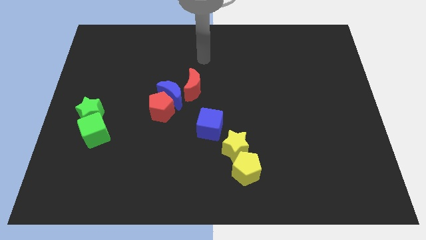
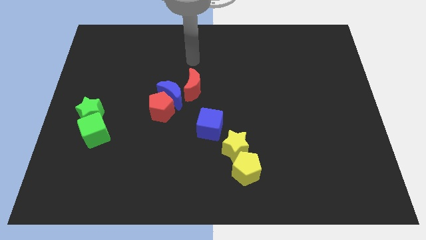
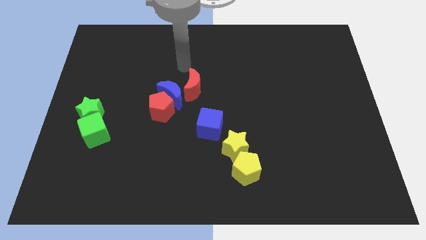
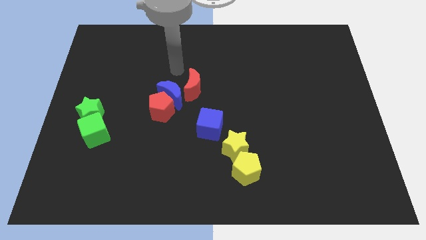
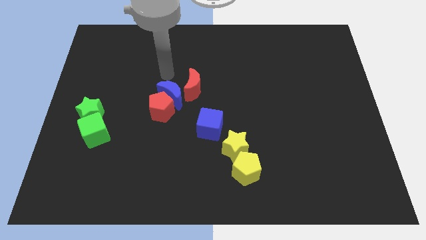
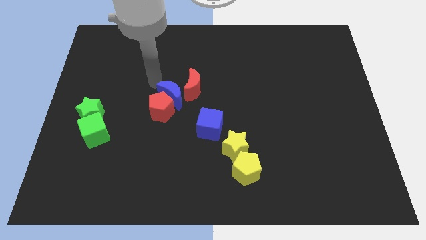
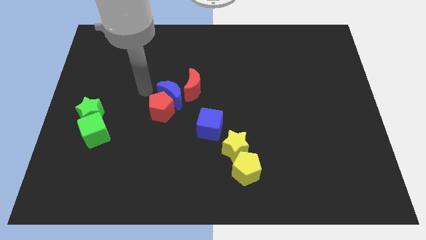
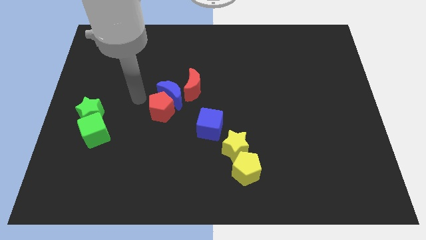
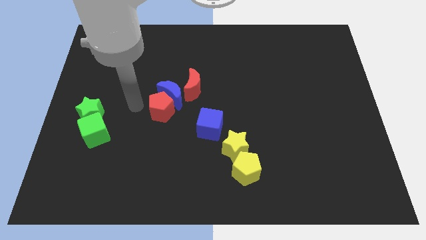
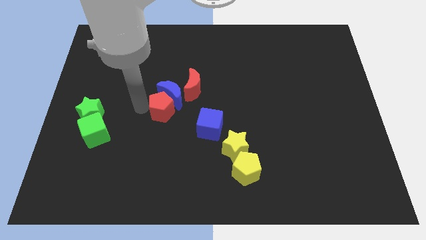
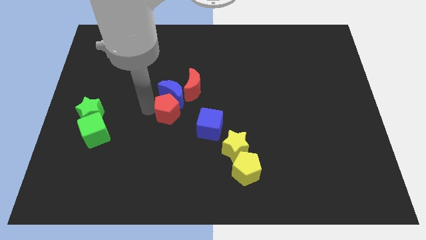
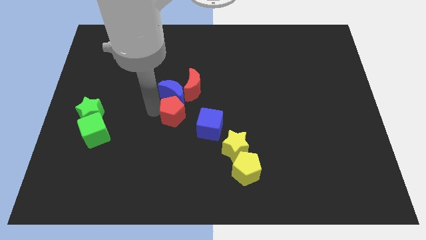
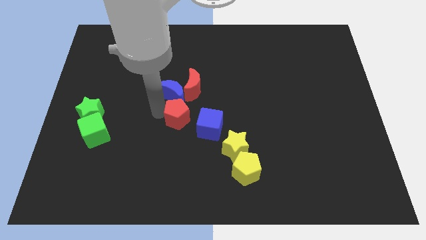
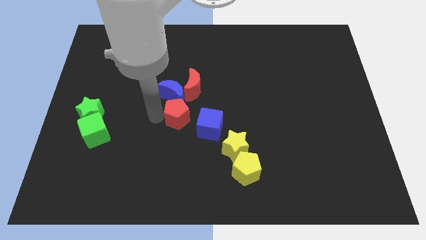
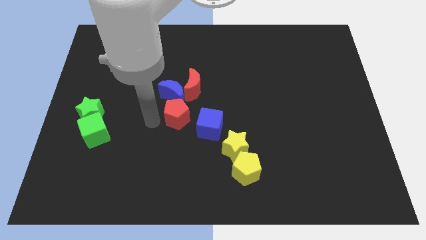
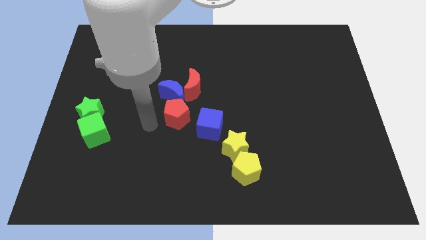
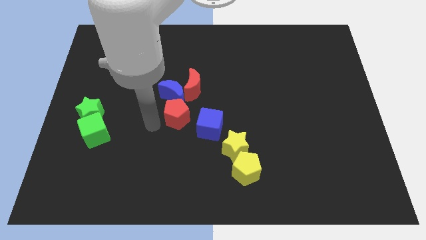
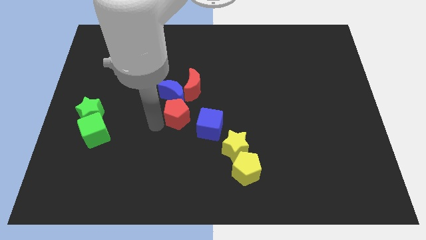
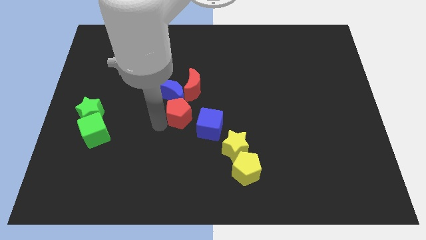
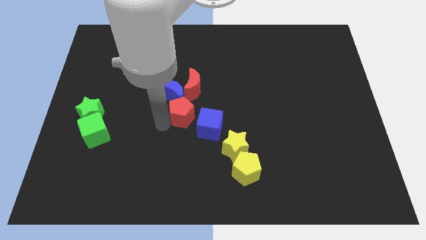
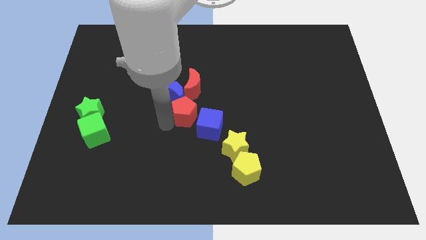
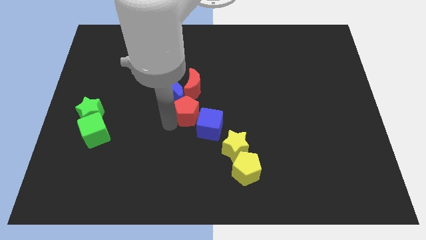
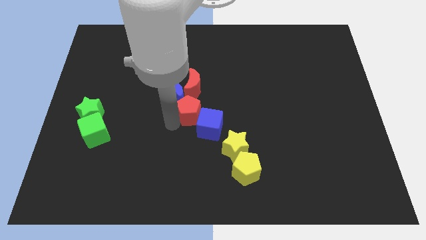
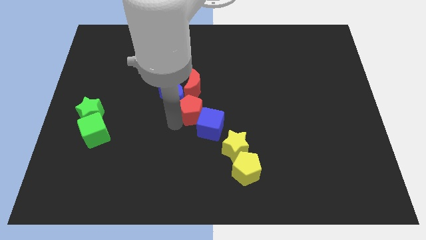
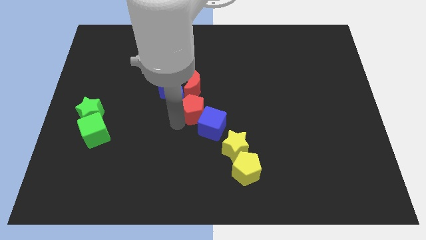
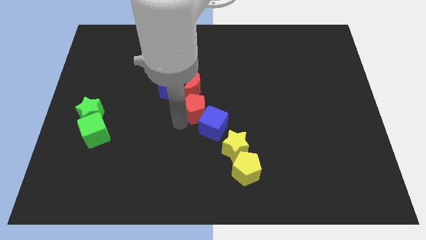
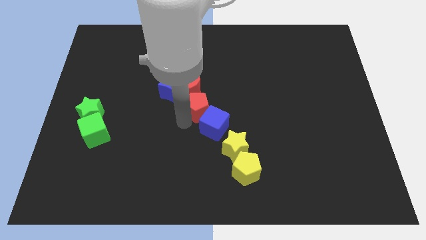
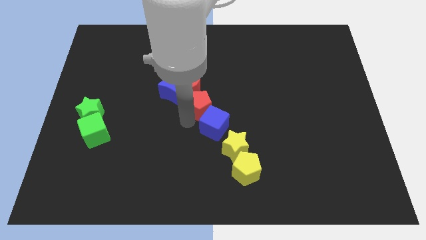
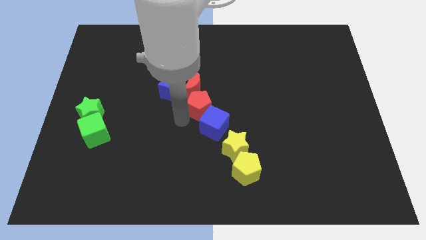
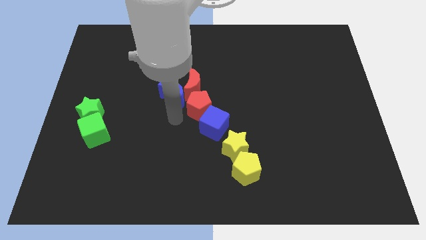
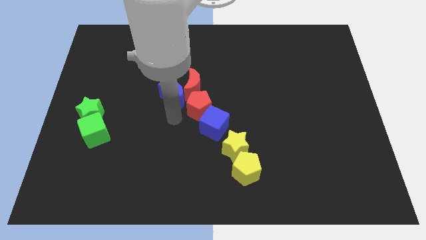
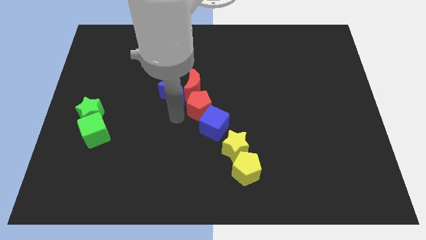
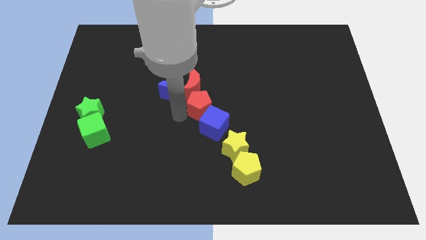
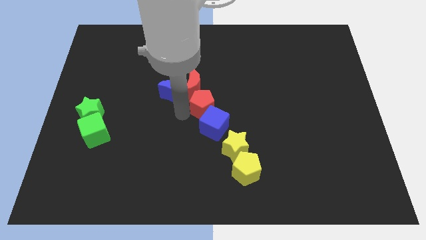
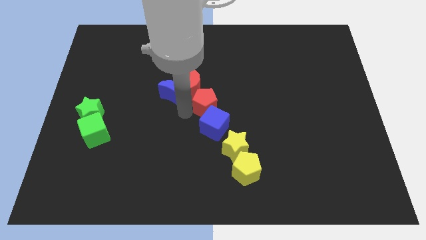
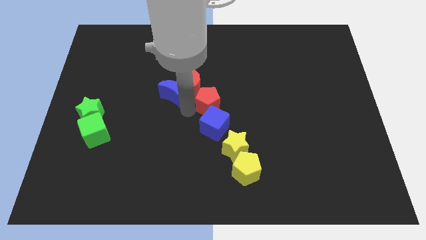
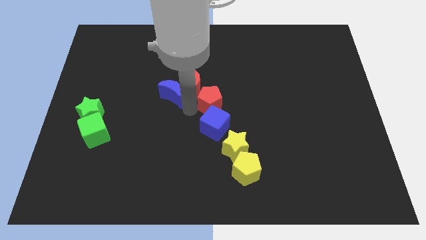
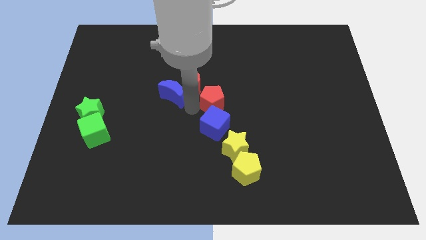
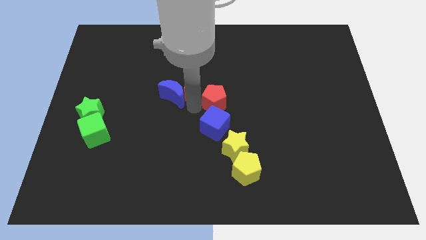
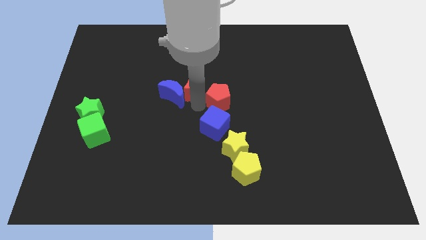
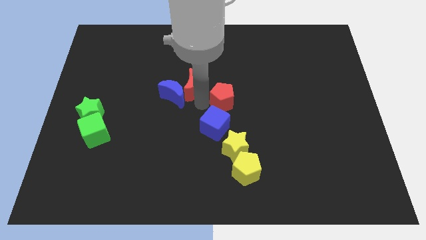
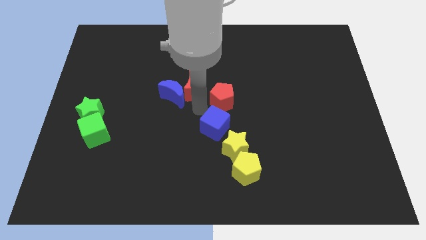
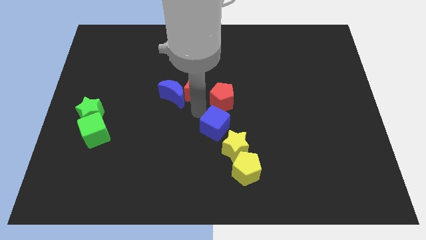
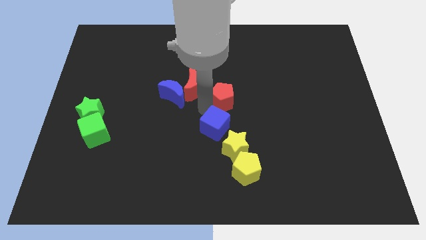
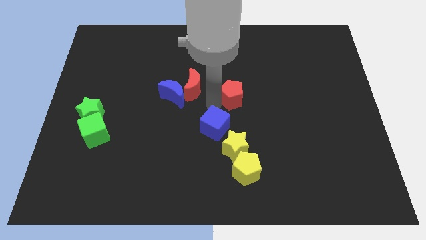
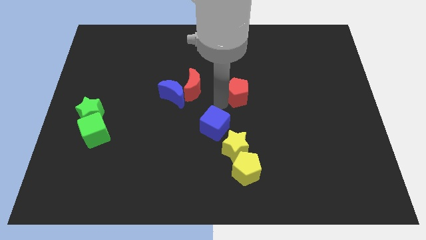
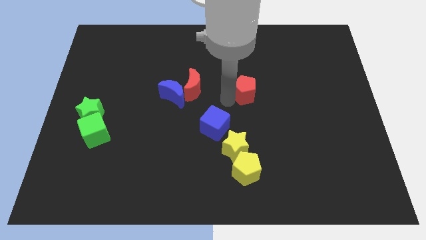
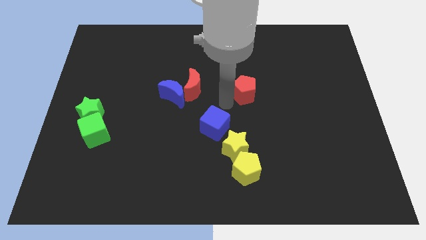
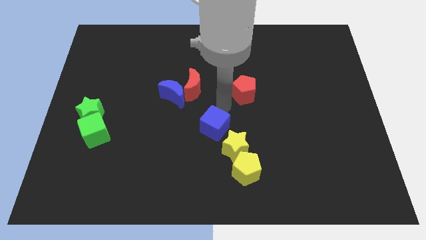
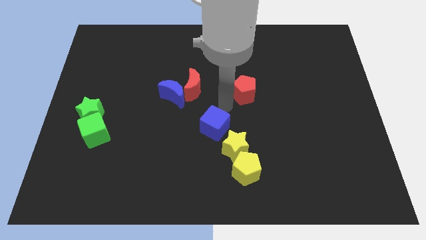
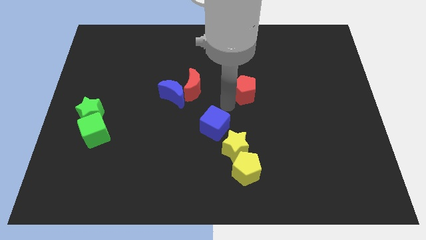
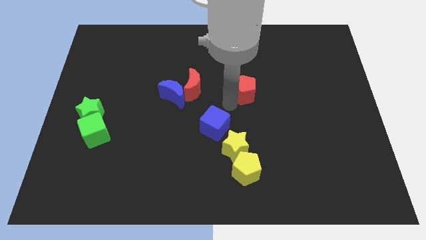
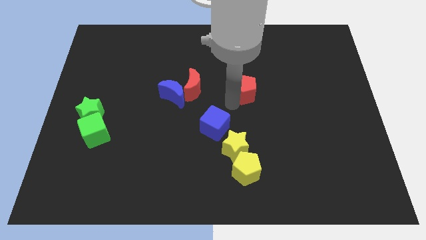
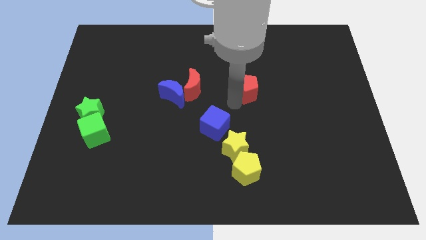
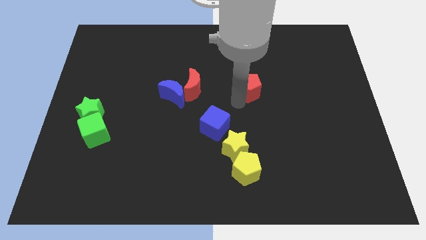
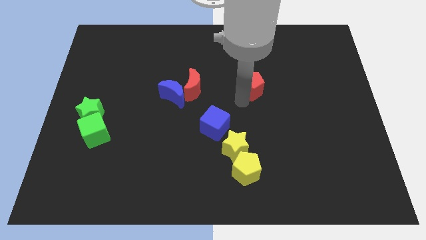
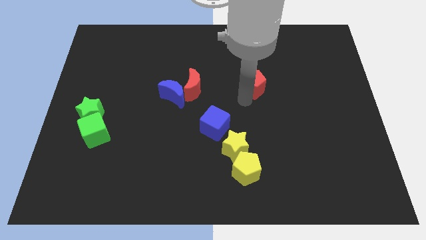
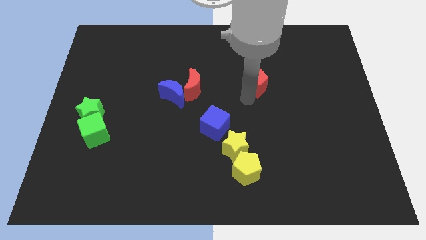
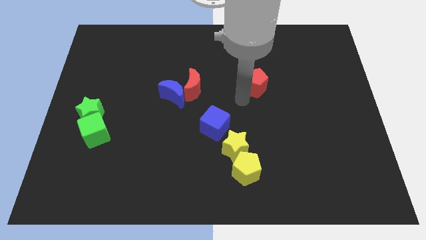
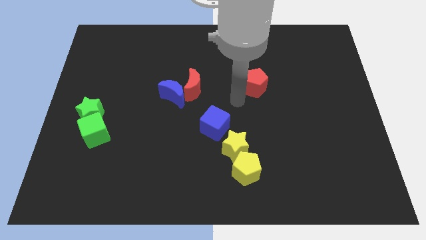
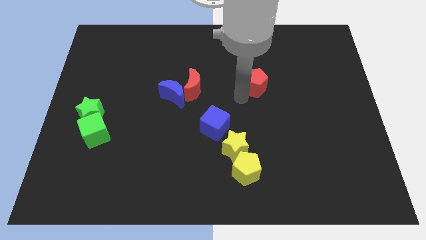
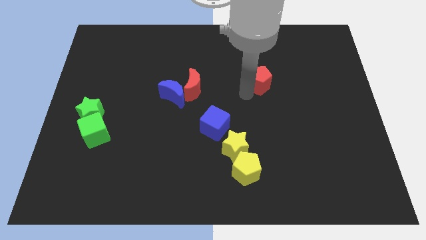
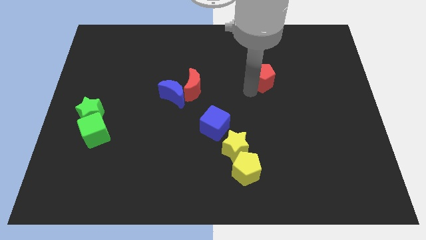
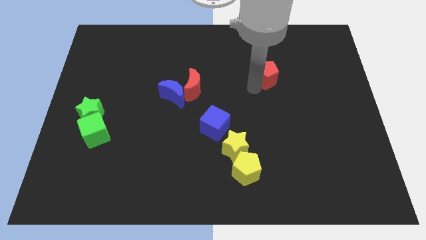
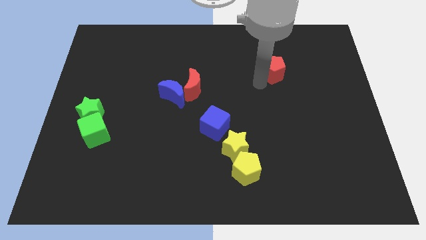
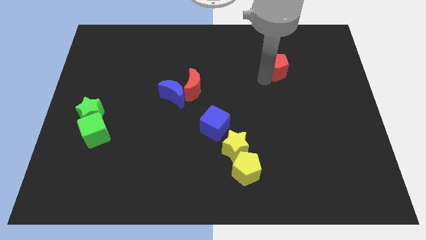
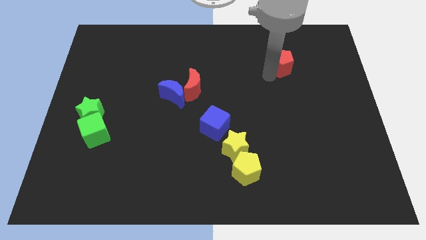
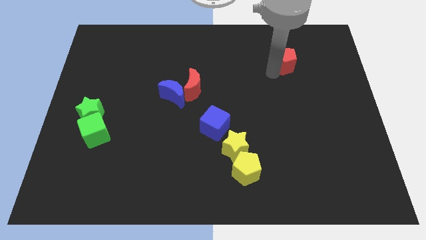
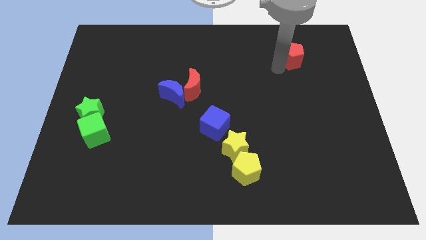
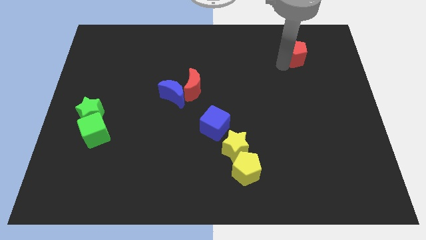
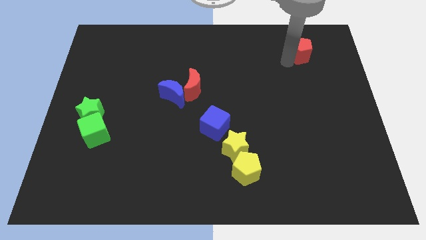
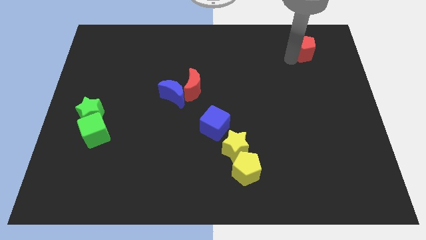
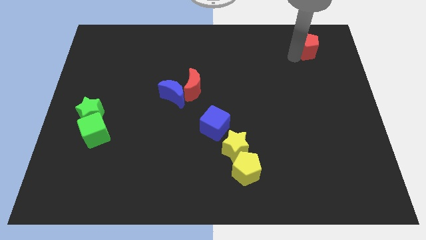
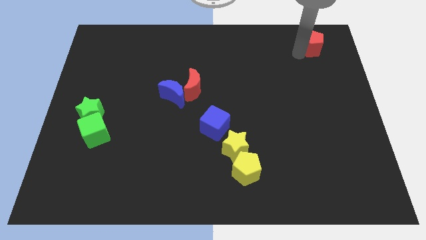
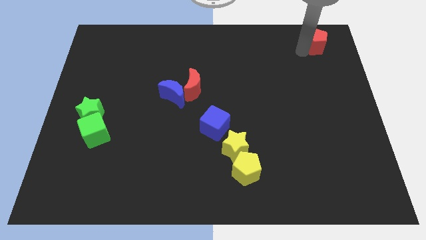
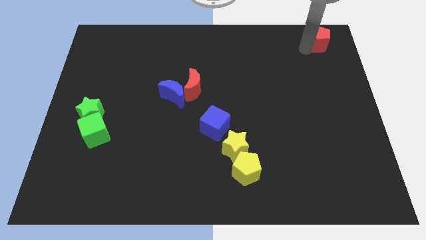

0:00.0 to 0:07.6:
push the red pentagon to the top right
